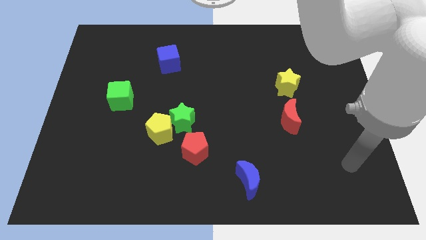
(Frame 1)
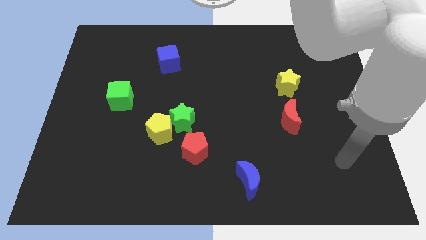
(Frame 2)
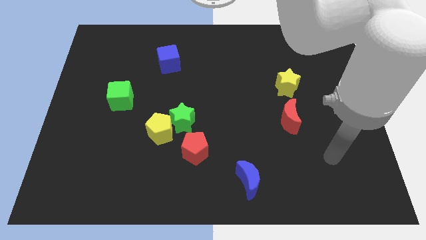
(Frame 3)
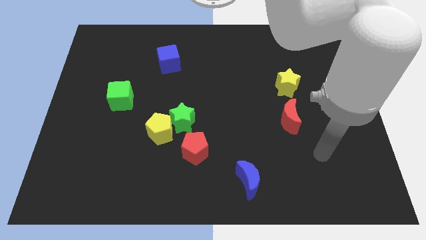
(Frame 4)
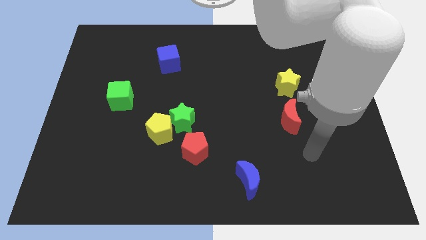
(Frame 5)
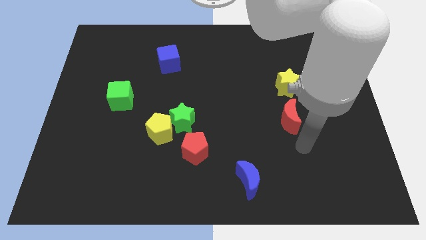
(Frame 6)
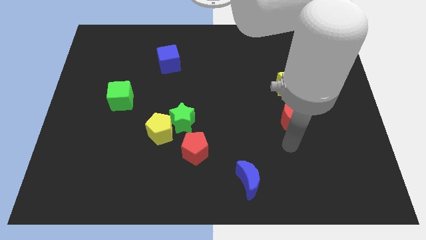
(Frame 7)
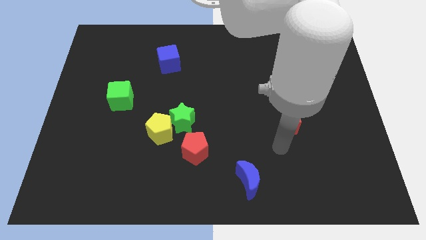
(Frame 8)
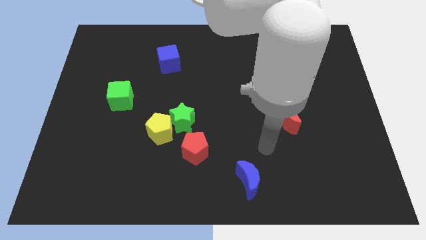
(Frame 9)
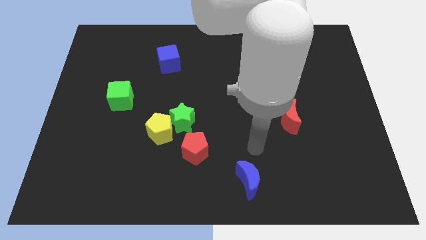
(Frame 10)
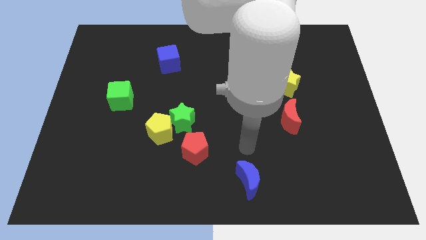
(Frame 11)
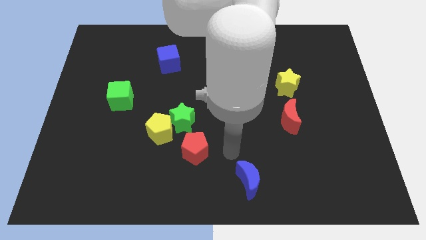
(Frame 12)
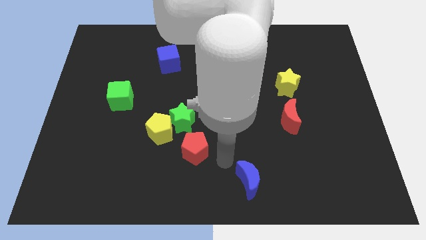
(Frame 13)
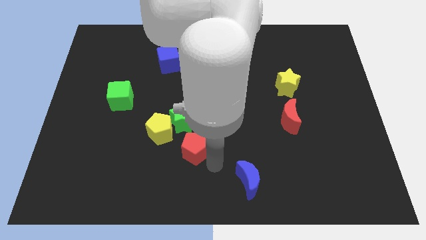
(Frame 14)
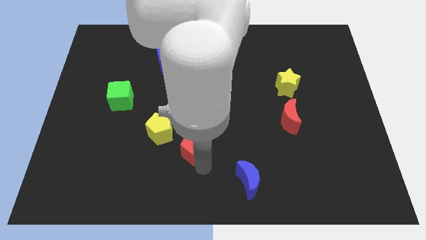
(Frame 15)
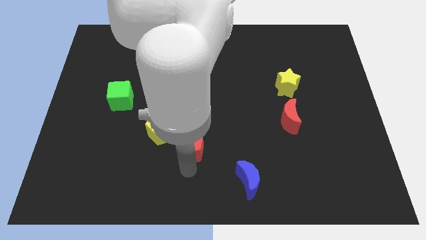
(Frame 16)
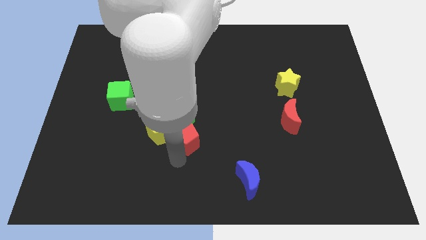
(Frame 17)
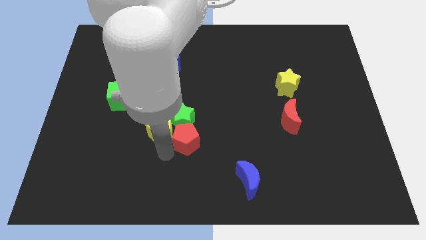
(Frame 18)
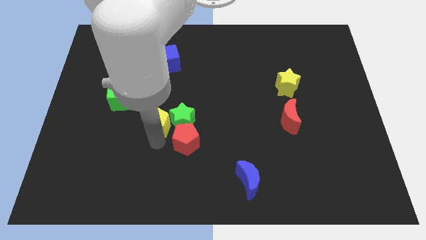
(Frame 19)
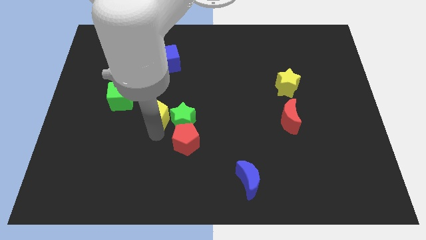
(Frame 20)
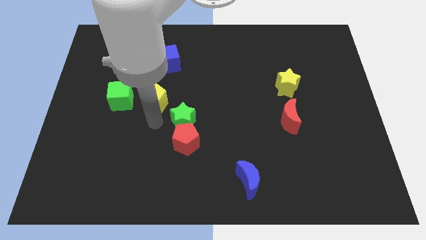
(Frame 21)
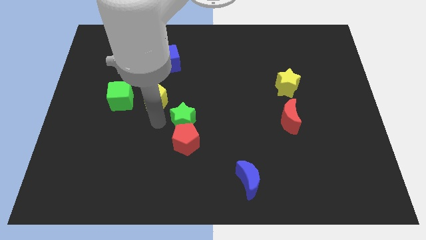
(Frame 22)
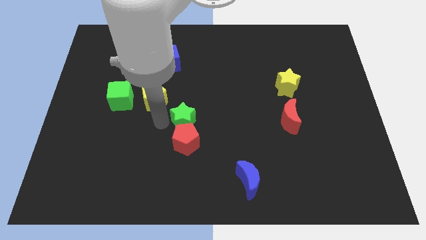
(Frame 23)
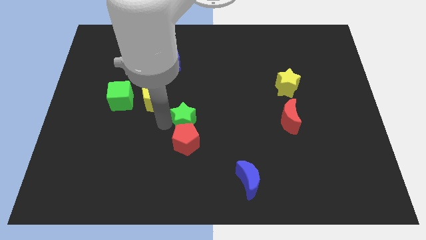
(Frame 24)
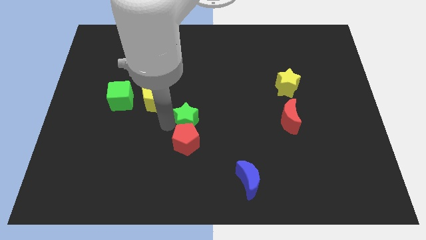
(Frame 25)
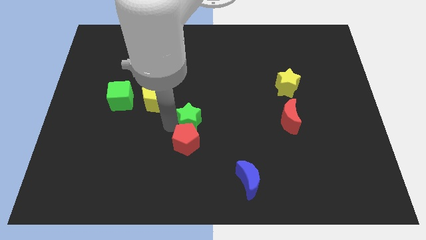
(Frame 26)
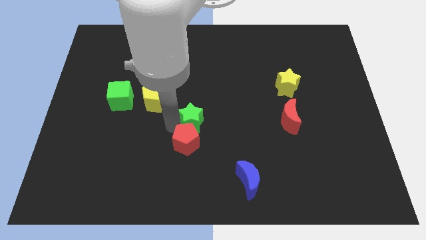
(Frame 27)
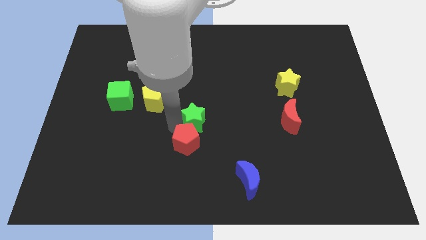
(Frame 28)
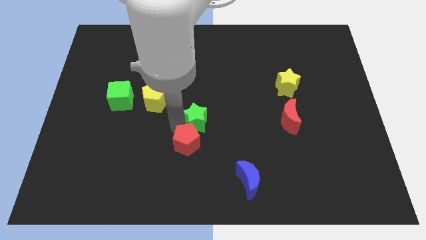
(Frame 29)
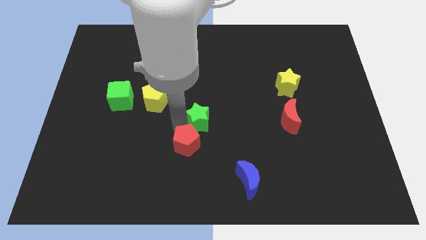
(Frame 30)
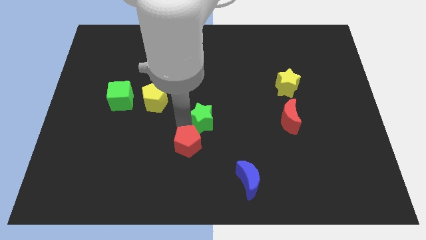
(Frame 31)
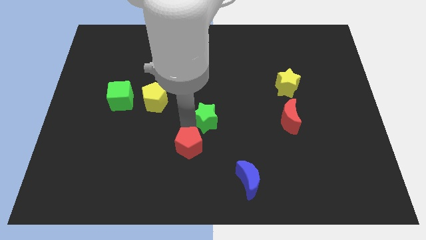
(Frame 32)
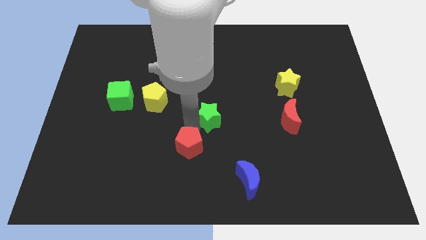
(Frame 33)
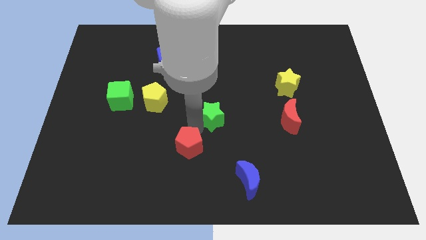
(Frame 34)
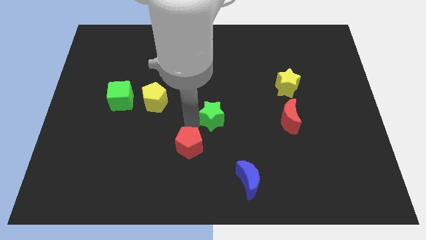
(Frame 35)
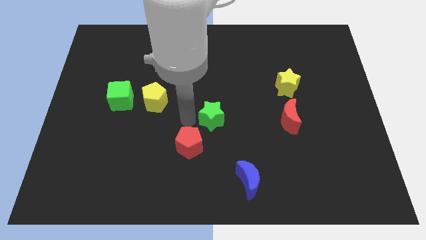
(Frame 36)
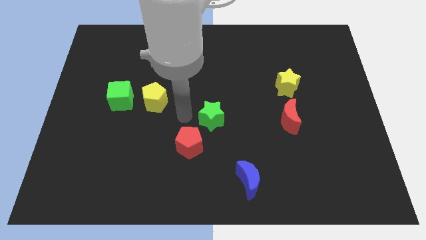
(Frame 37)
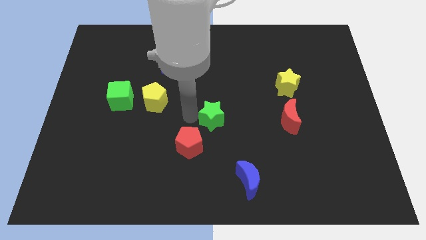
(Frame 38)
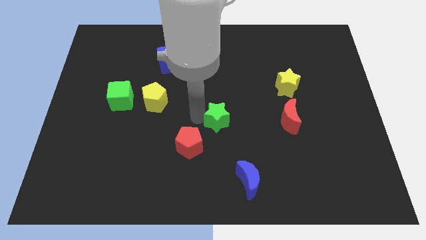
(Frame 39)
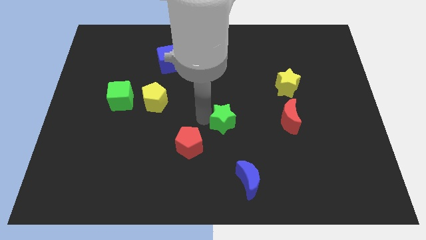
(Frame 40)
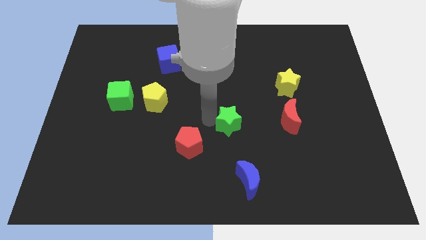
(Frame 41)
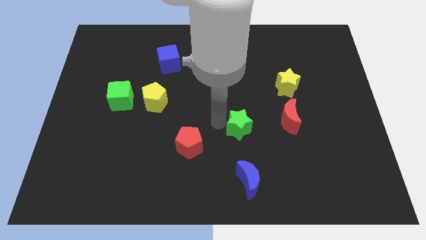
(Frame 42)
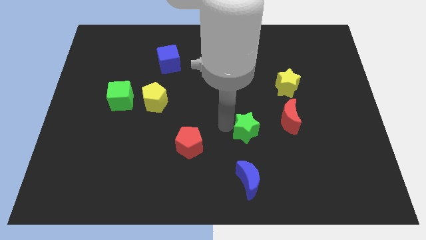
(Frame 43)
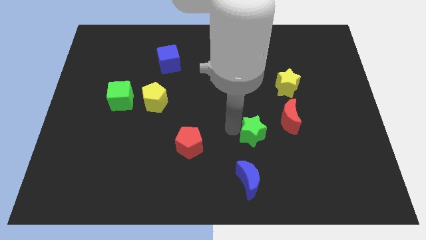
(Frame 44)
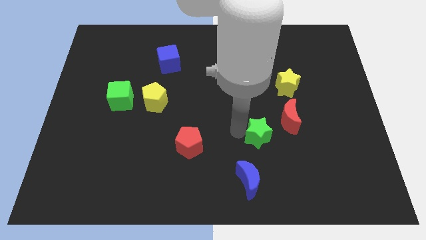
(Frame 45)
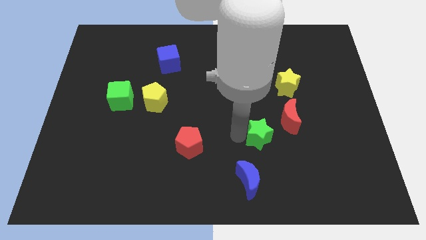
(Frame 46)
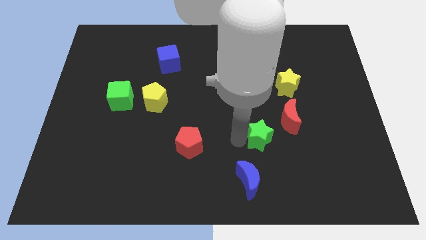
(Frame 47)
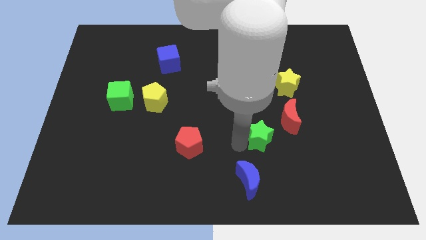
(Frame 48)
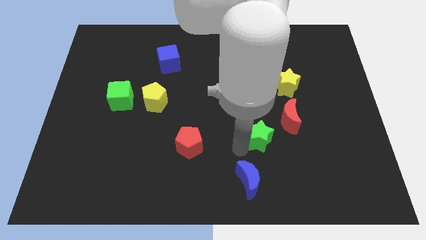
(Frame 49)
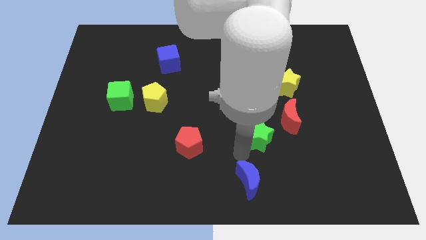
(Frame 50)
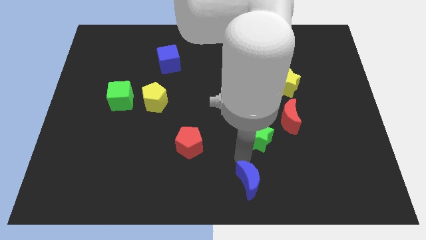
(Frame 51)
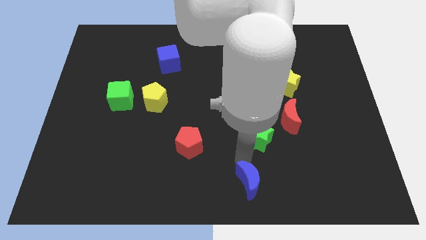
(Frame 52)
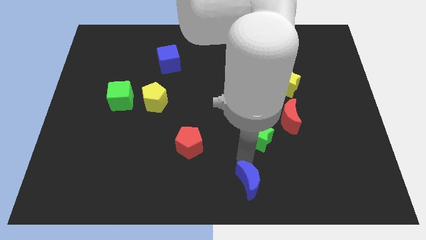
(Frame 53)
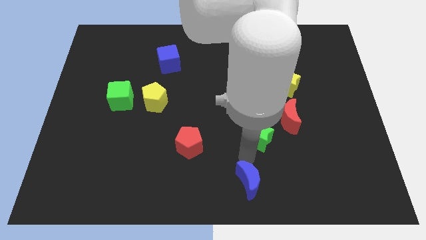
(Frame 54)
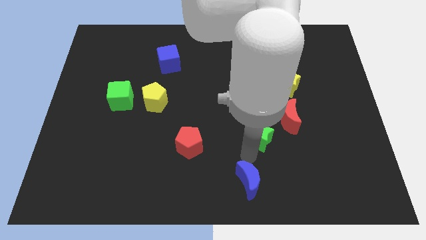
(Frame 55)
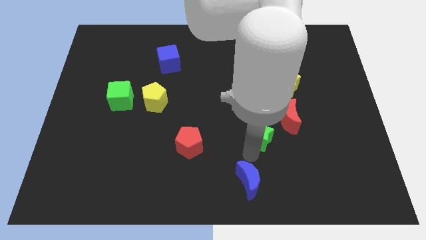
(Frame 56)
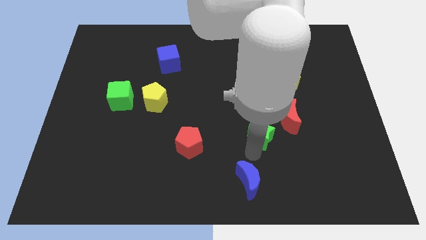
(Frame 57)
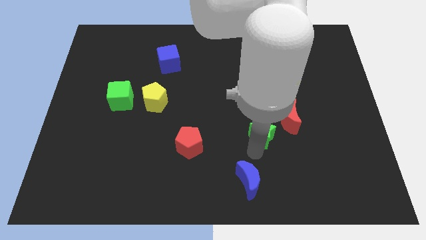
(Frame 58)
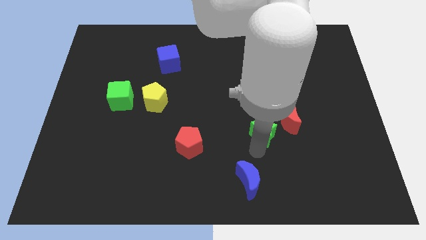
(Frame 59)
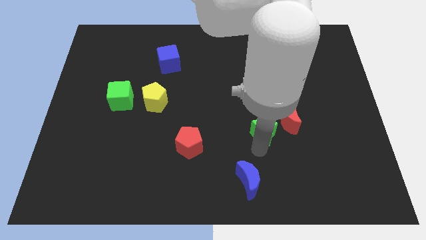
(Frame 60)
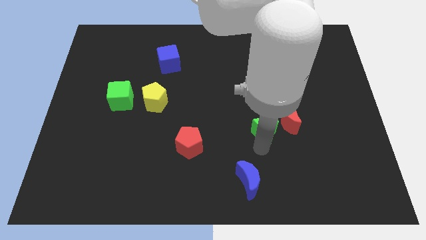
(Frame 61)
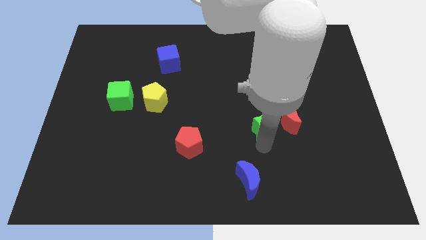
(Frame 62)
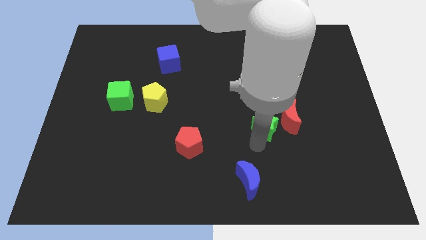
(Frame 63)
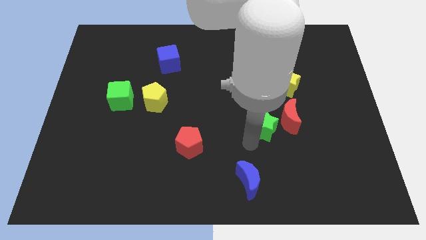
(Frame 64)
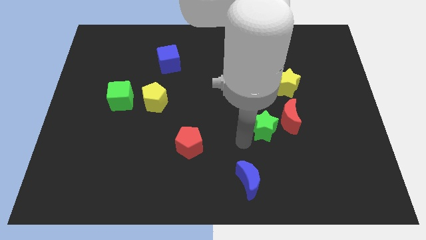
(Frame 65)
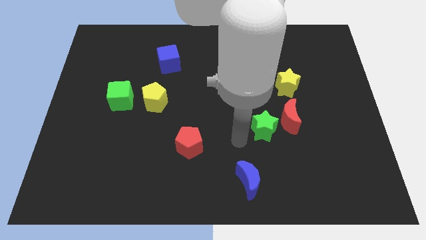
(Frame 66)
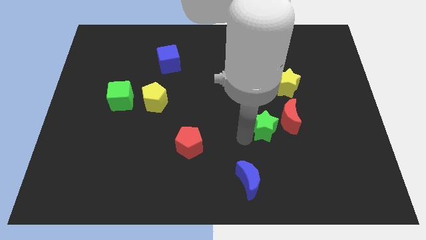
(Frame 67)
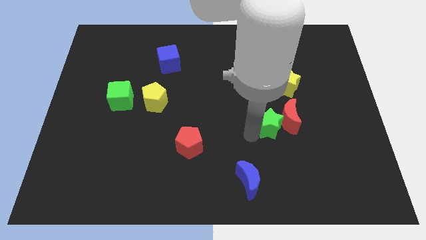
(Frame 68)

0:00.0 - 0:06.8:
slide the green star to the red moon
